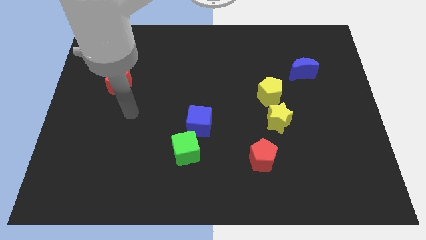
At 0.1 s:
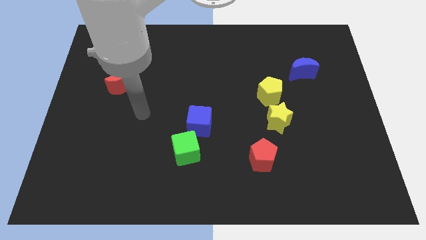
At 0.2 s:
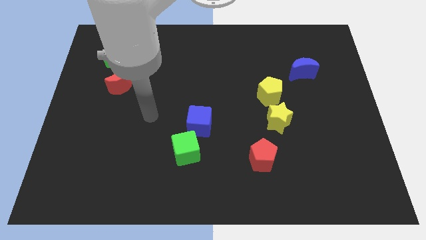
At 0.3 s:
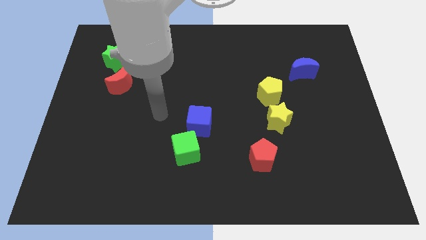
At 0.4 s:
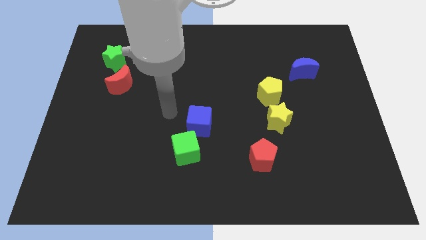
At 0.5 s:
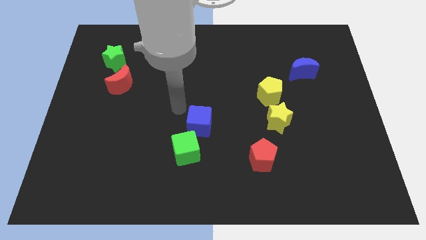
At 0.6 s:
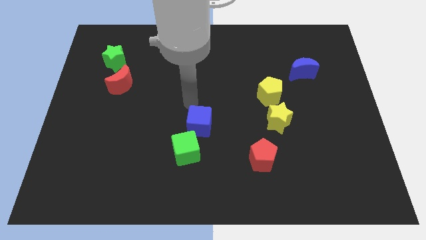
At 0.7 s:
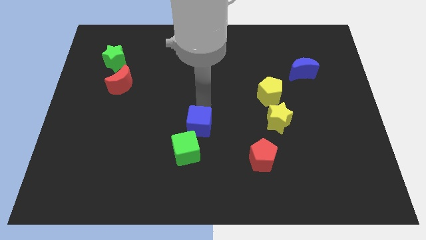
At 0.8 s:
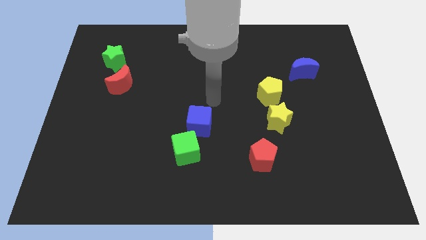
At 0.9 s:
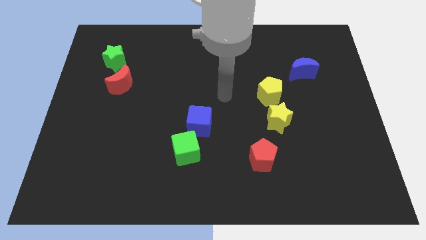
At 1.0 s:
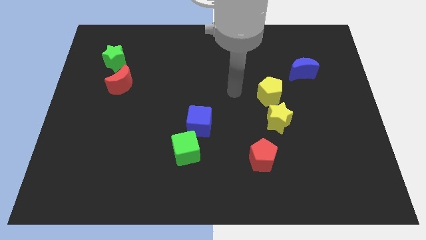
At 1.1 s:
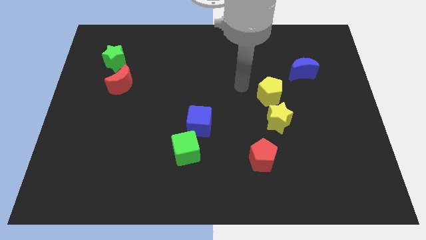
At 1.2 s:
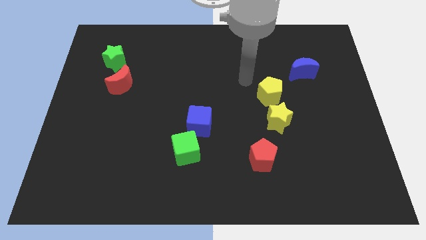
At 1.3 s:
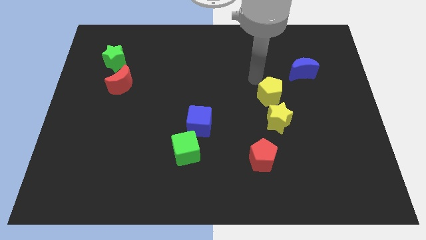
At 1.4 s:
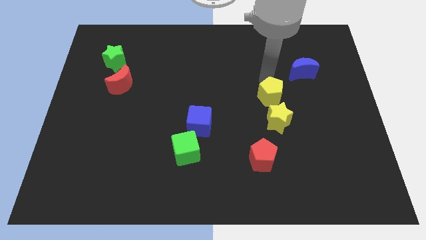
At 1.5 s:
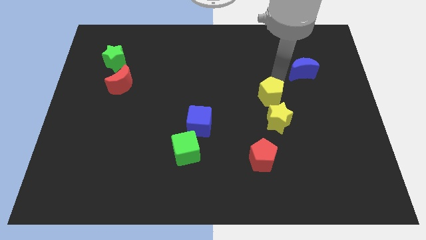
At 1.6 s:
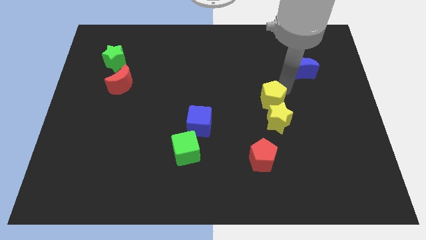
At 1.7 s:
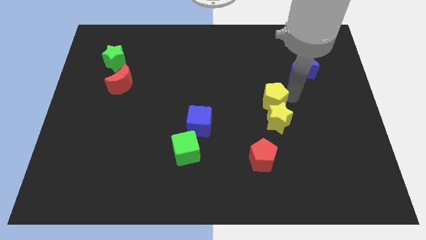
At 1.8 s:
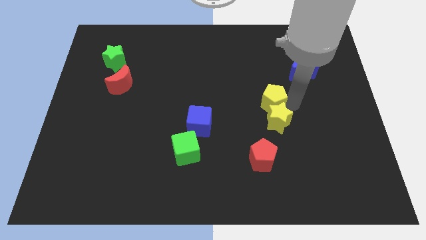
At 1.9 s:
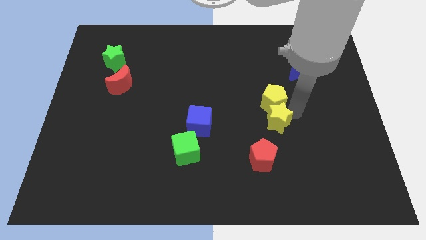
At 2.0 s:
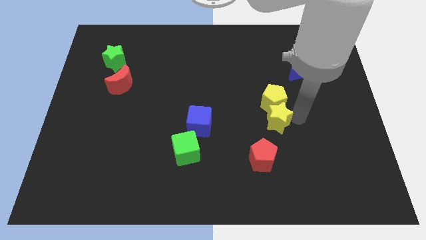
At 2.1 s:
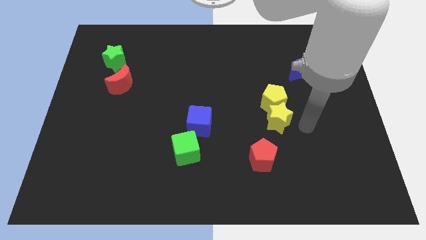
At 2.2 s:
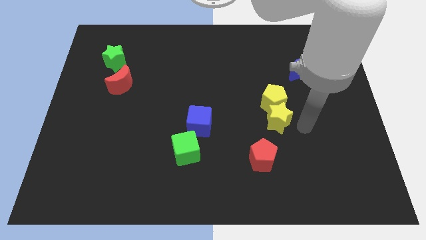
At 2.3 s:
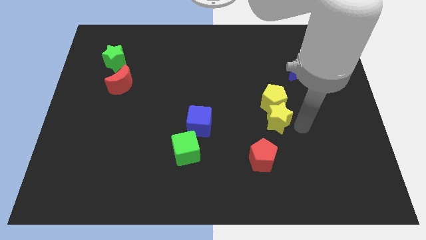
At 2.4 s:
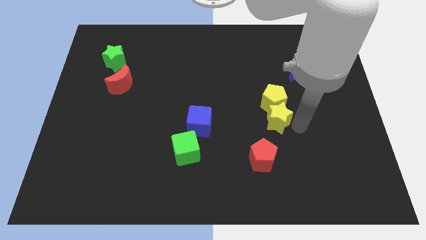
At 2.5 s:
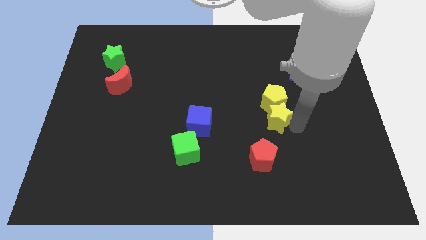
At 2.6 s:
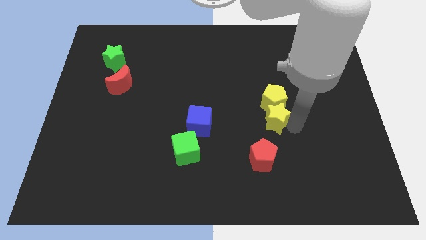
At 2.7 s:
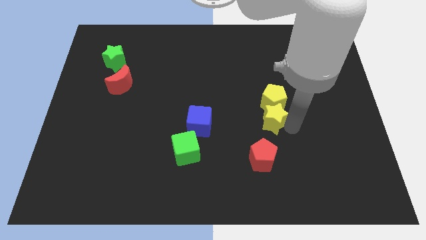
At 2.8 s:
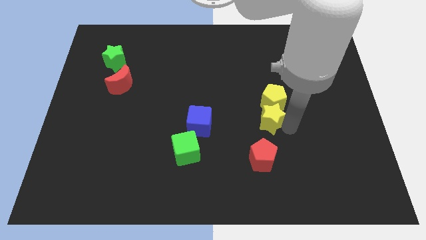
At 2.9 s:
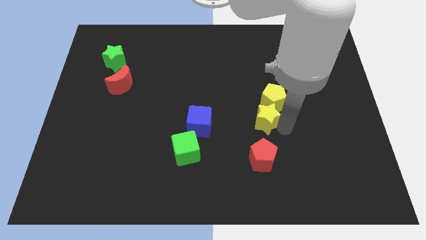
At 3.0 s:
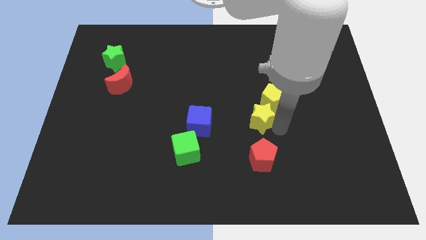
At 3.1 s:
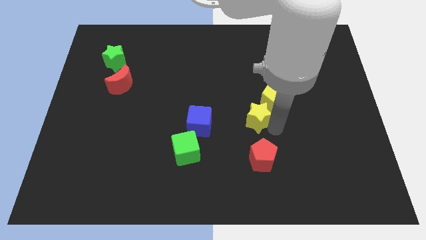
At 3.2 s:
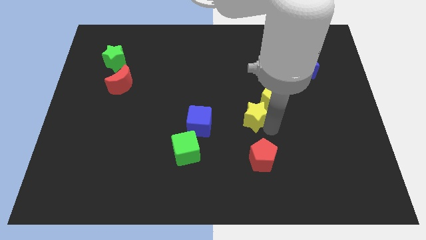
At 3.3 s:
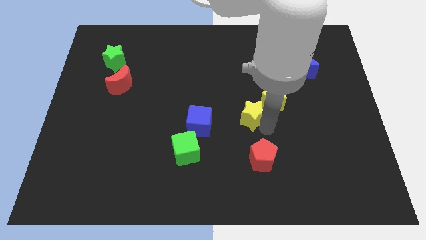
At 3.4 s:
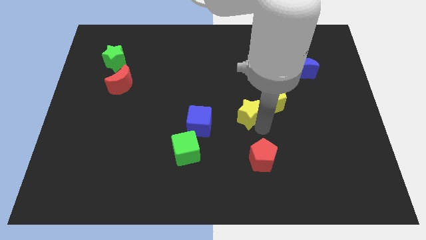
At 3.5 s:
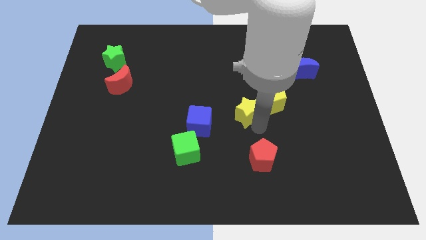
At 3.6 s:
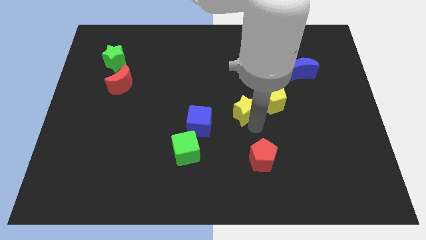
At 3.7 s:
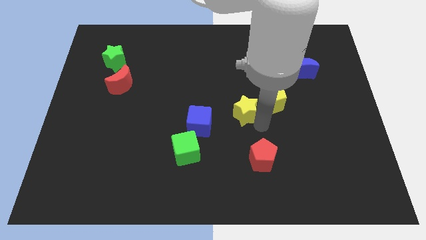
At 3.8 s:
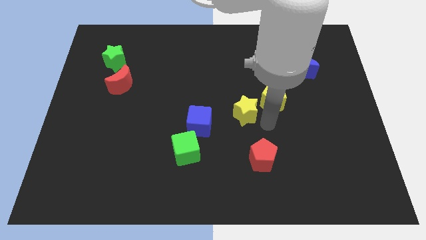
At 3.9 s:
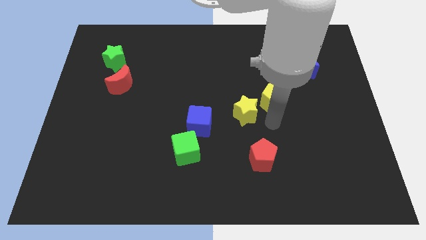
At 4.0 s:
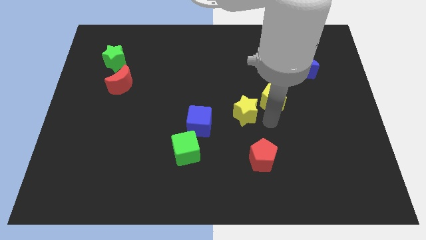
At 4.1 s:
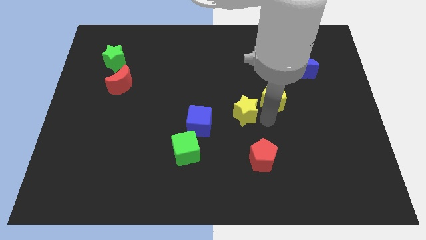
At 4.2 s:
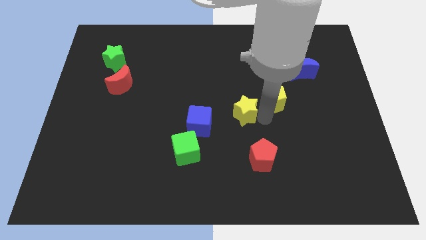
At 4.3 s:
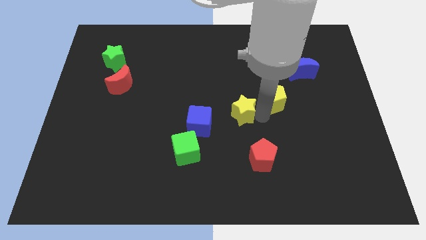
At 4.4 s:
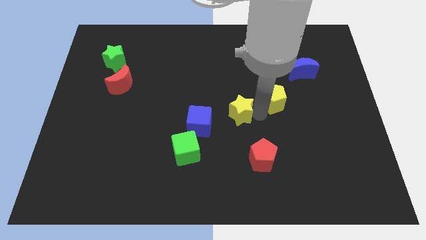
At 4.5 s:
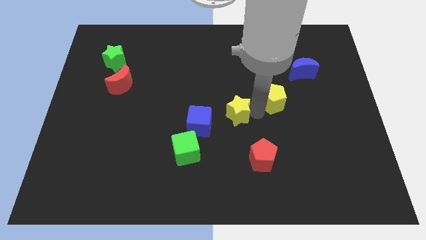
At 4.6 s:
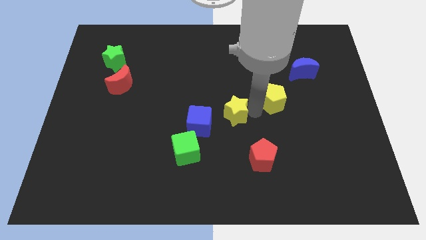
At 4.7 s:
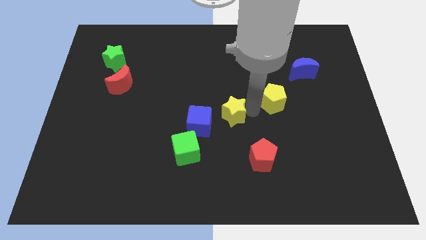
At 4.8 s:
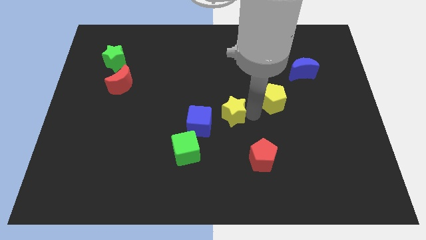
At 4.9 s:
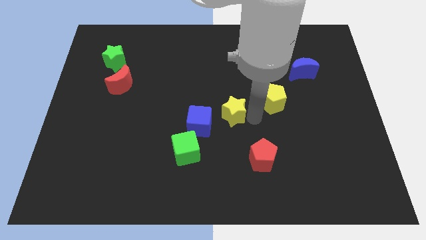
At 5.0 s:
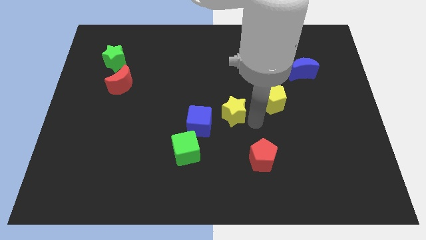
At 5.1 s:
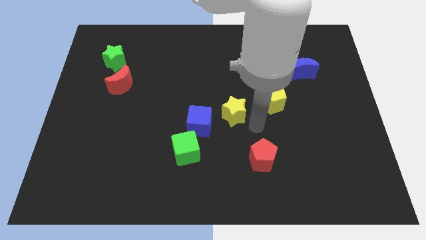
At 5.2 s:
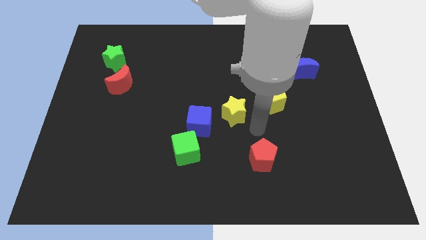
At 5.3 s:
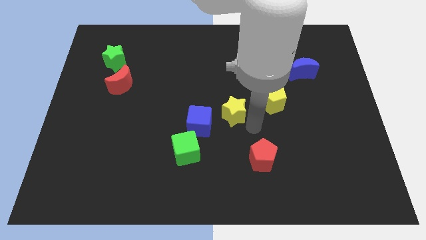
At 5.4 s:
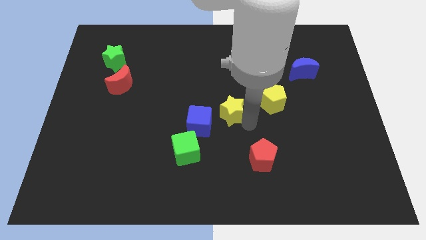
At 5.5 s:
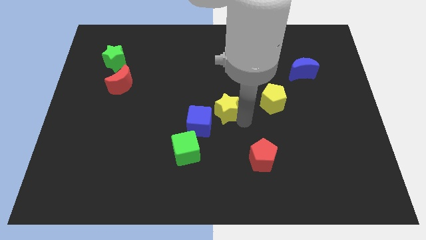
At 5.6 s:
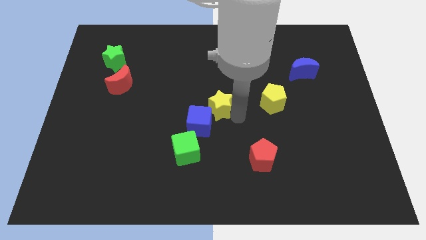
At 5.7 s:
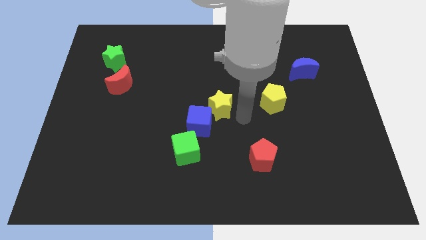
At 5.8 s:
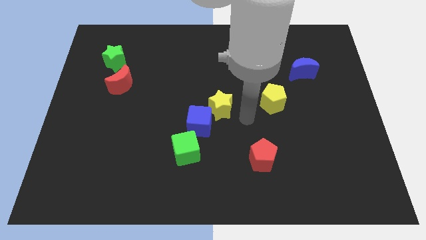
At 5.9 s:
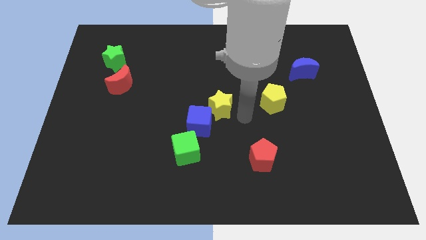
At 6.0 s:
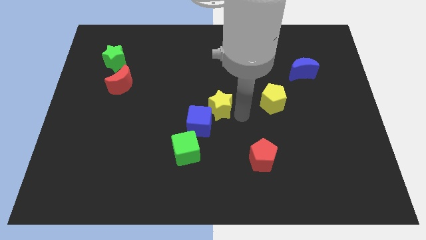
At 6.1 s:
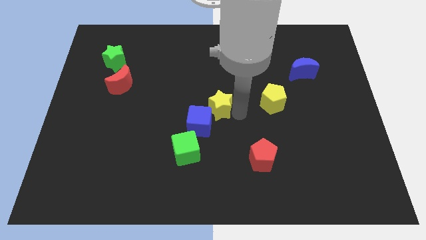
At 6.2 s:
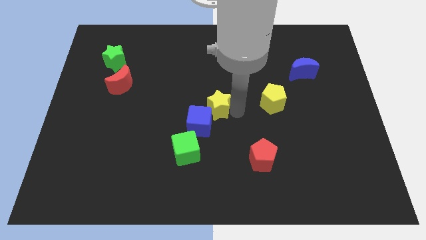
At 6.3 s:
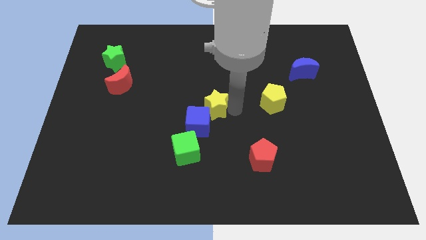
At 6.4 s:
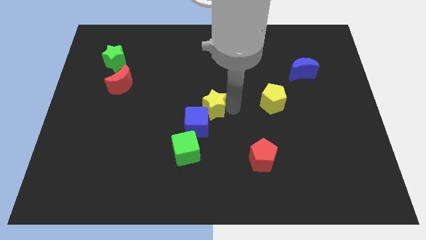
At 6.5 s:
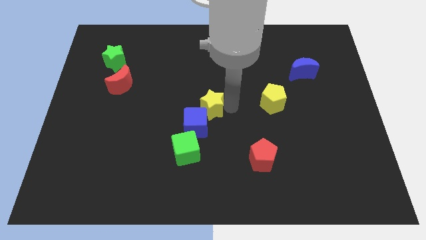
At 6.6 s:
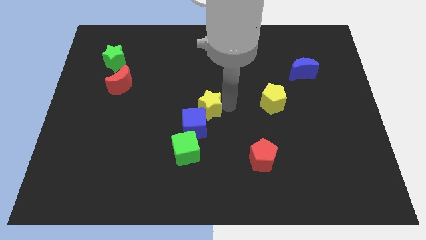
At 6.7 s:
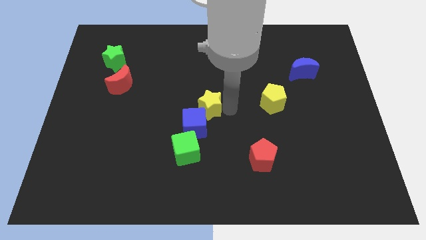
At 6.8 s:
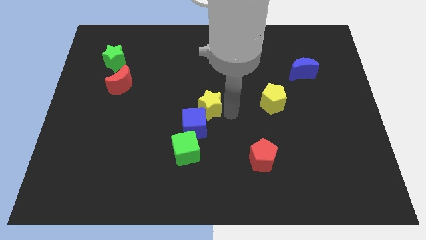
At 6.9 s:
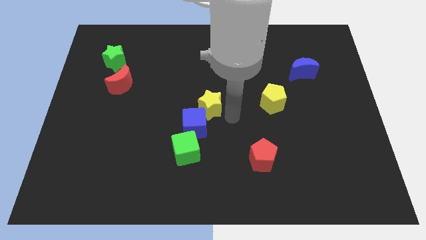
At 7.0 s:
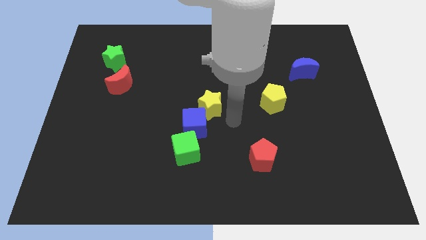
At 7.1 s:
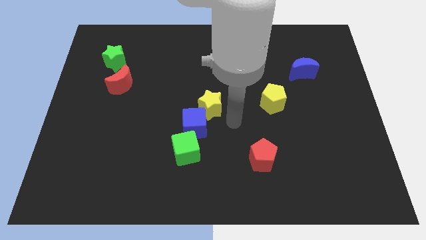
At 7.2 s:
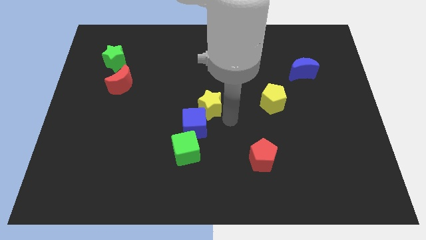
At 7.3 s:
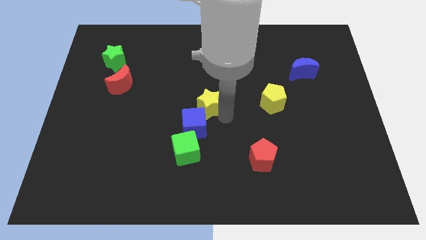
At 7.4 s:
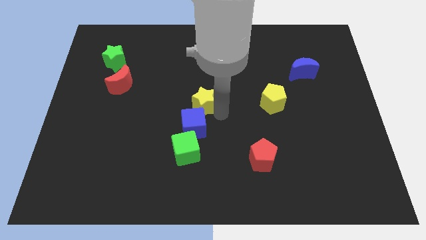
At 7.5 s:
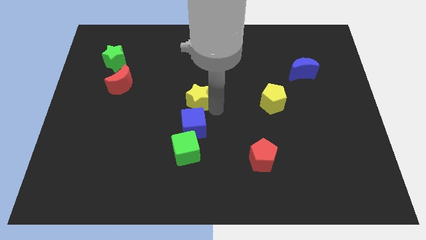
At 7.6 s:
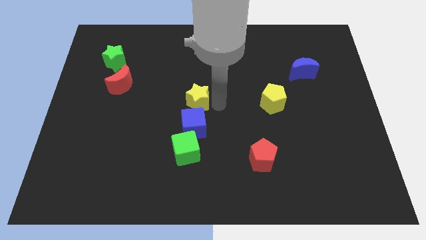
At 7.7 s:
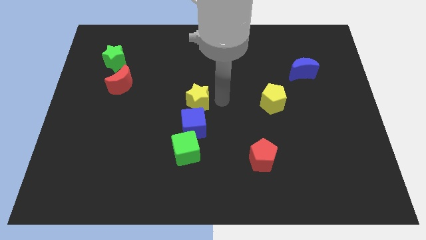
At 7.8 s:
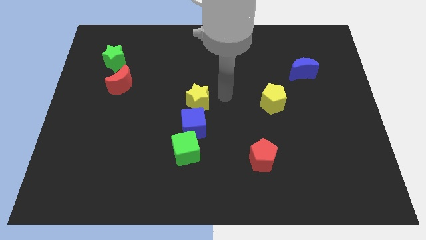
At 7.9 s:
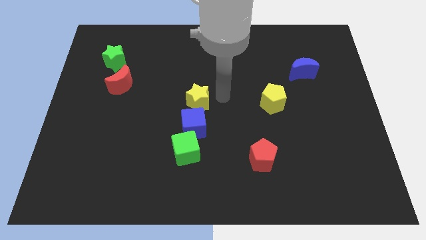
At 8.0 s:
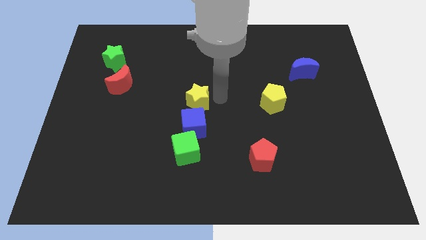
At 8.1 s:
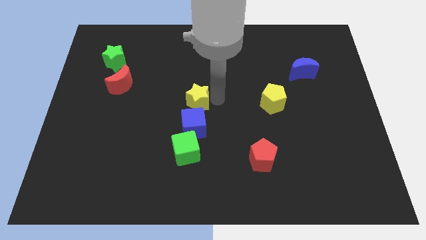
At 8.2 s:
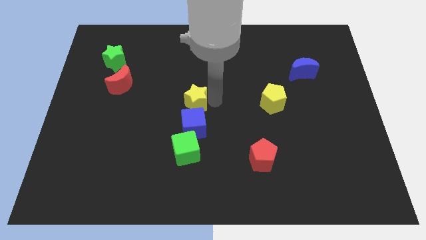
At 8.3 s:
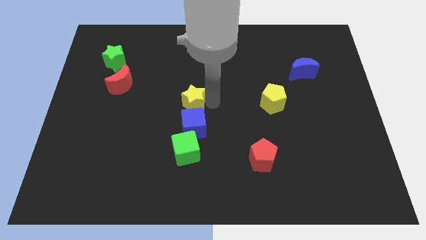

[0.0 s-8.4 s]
move the yellow star diagonally up and to the left of the blue cube
